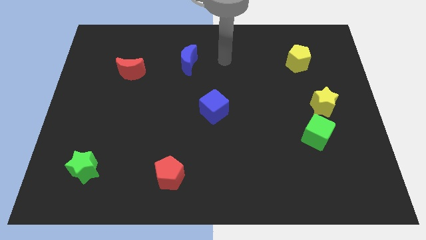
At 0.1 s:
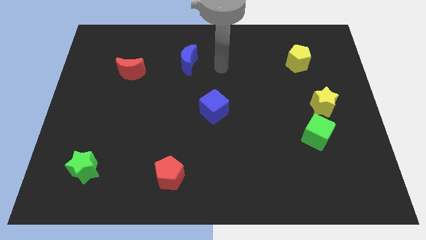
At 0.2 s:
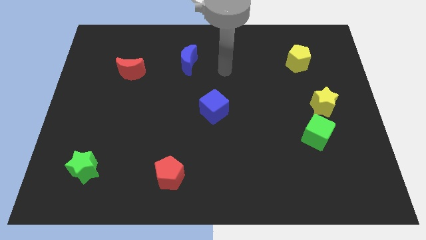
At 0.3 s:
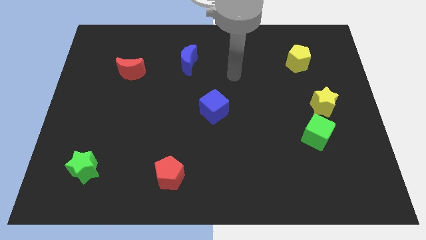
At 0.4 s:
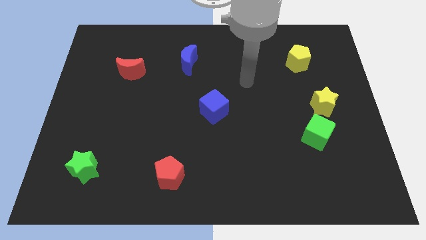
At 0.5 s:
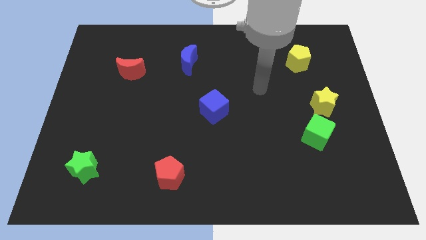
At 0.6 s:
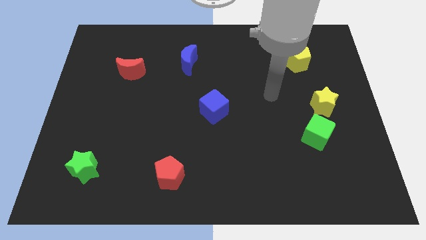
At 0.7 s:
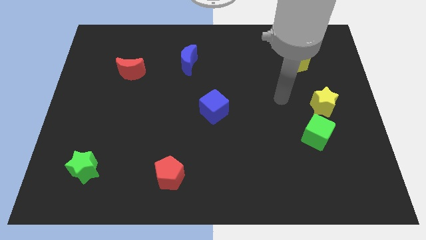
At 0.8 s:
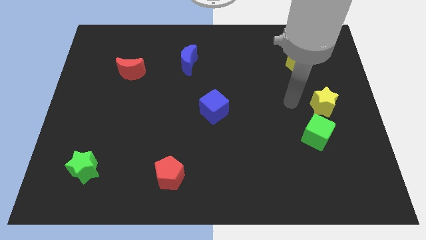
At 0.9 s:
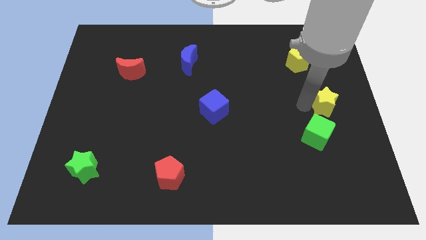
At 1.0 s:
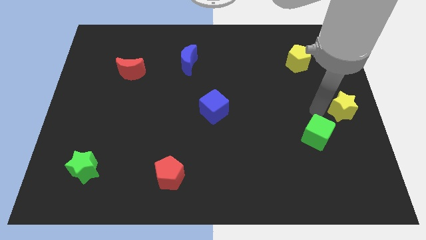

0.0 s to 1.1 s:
move the green cube away from the yellow star

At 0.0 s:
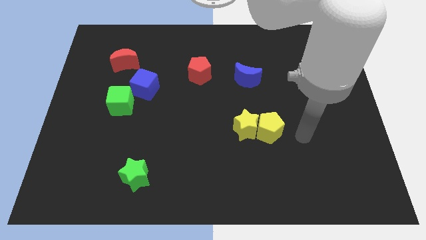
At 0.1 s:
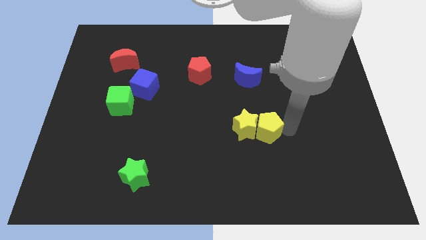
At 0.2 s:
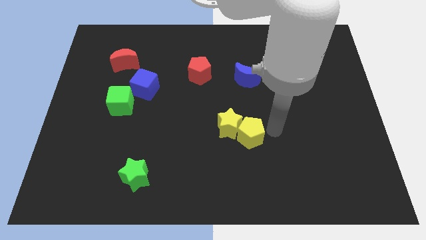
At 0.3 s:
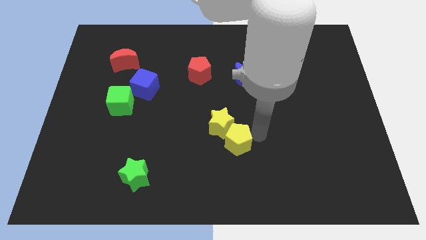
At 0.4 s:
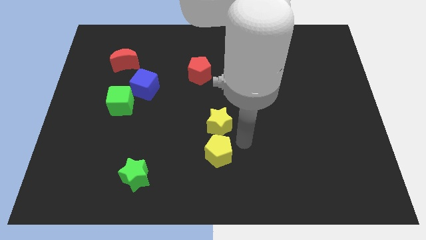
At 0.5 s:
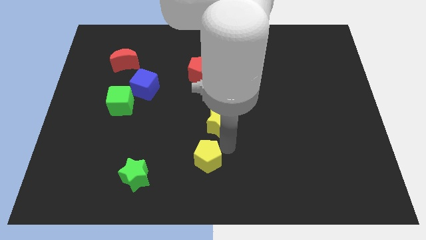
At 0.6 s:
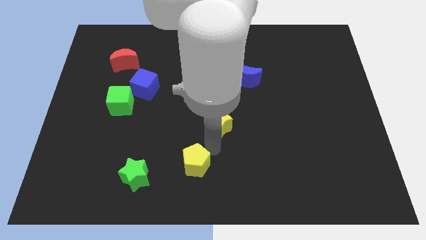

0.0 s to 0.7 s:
move the yellow star away from the yellow pentagon

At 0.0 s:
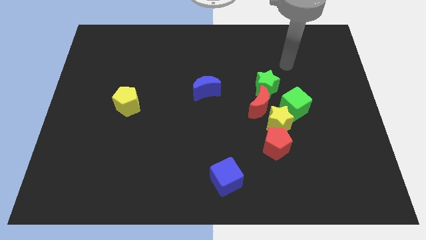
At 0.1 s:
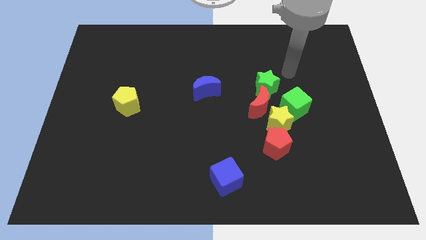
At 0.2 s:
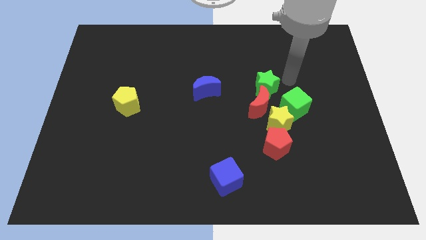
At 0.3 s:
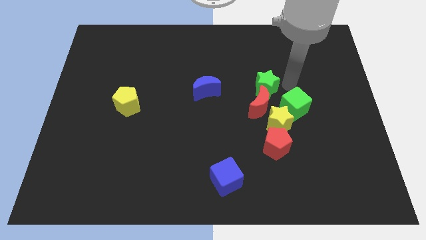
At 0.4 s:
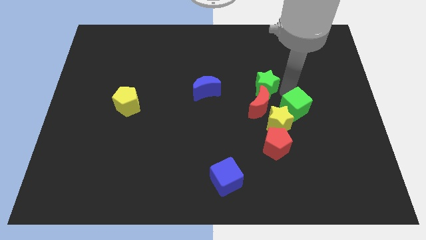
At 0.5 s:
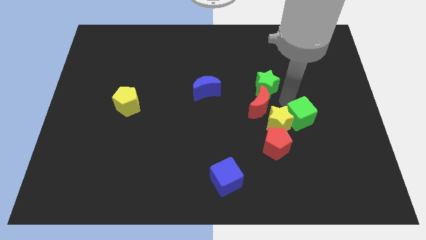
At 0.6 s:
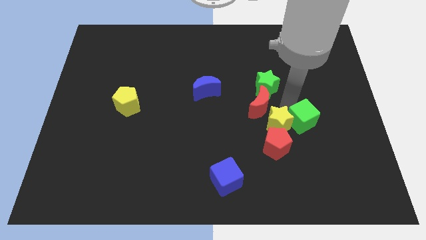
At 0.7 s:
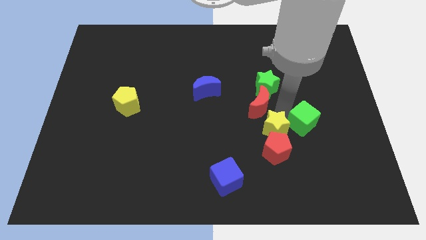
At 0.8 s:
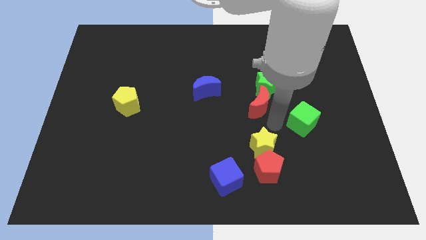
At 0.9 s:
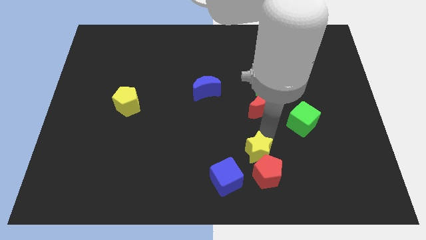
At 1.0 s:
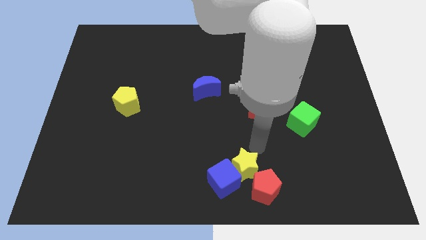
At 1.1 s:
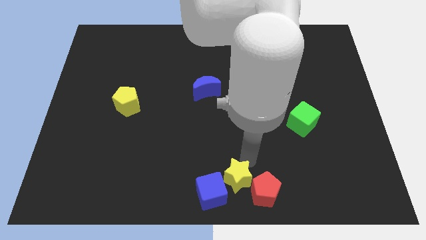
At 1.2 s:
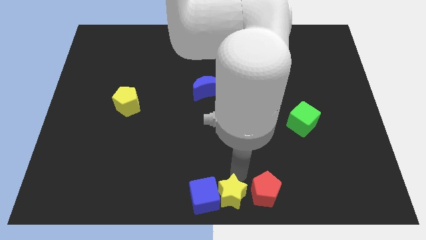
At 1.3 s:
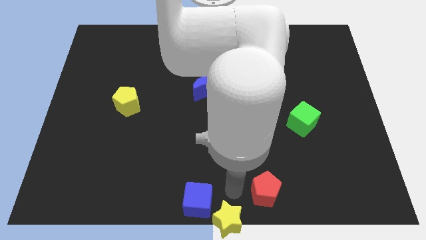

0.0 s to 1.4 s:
separate the red pentagon from the yellow star

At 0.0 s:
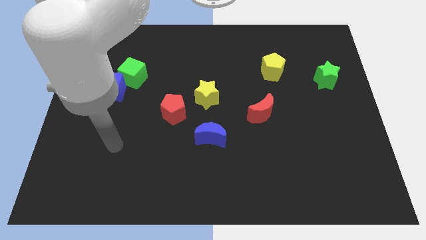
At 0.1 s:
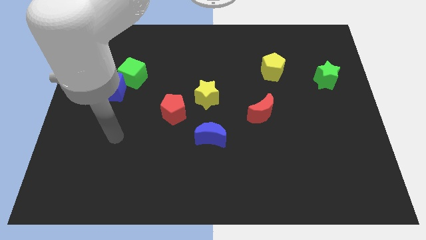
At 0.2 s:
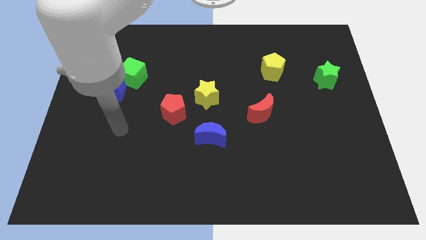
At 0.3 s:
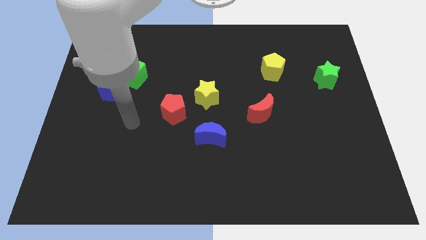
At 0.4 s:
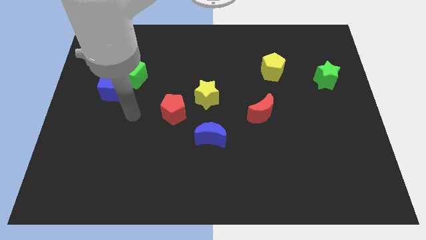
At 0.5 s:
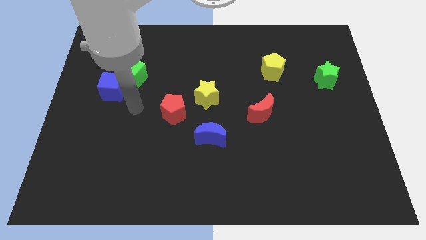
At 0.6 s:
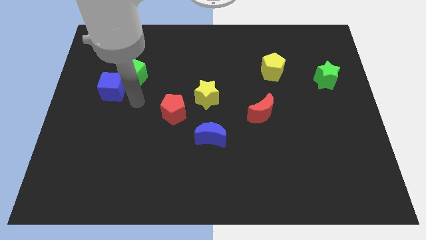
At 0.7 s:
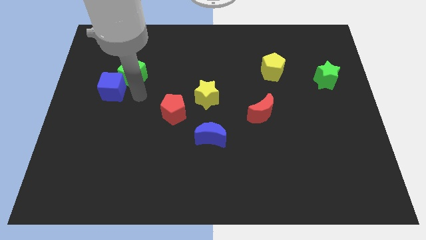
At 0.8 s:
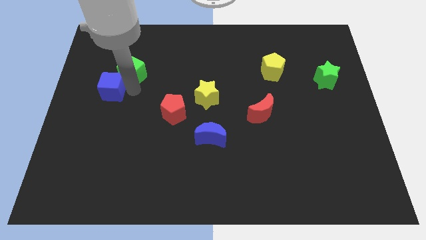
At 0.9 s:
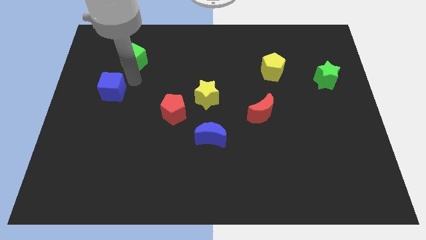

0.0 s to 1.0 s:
move the blue cube away from the green cube

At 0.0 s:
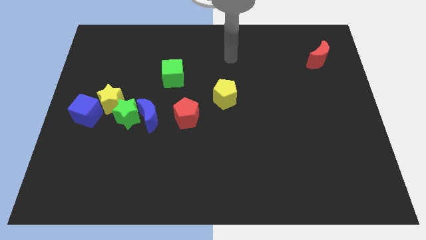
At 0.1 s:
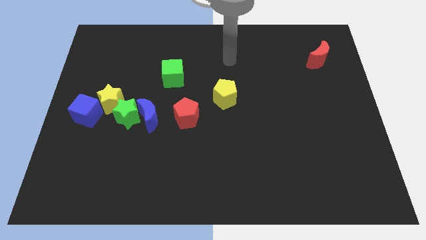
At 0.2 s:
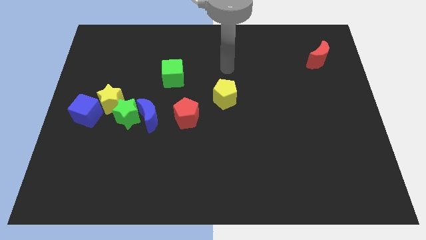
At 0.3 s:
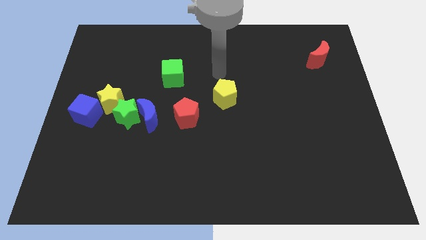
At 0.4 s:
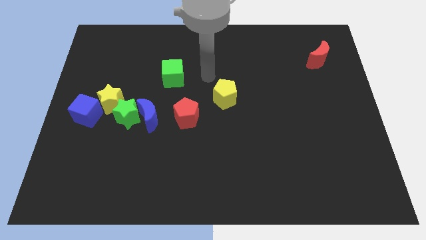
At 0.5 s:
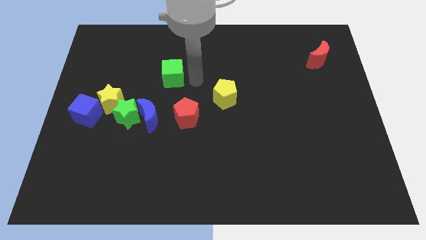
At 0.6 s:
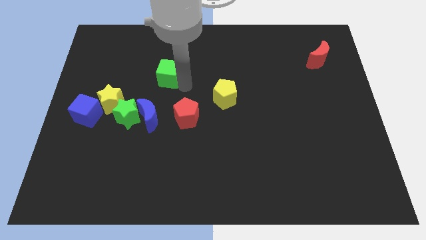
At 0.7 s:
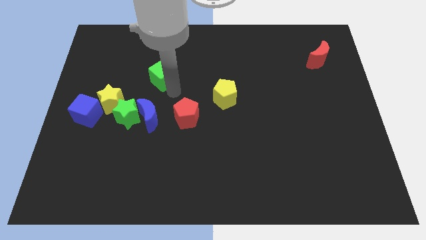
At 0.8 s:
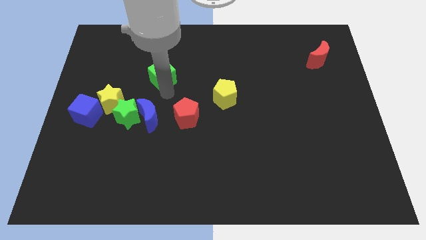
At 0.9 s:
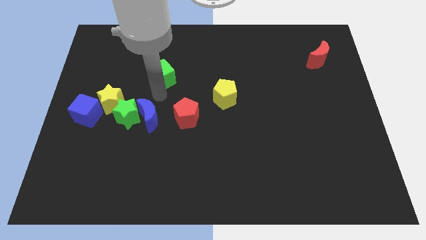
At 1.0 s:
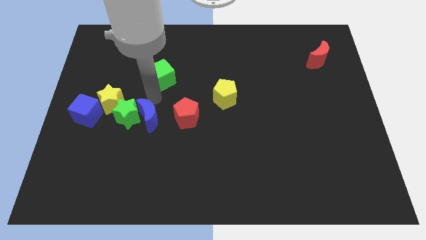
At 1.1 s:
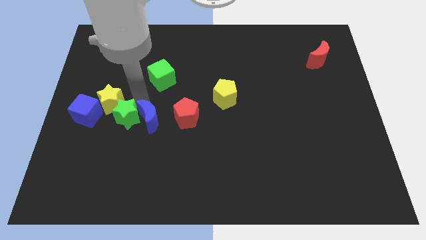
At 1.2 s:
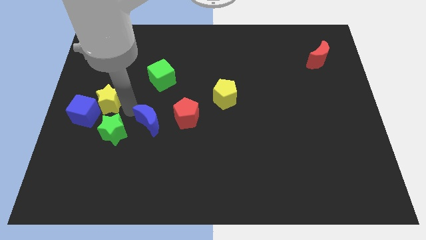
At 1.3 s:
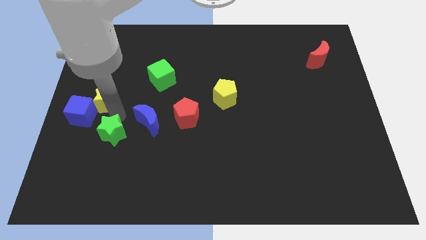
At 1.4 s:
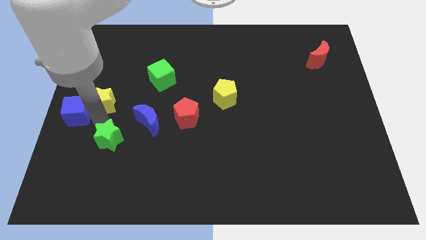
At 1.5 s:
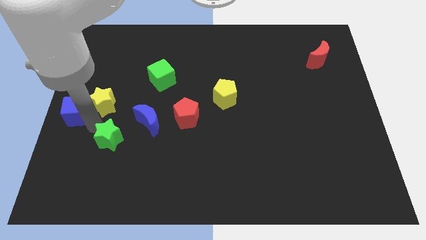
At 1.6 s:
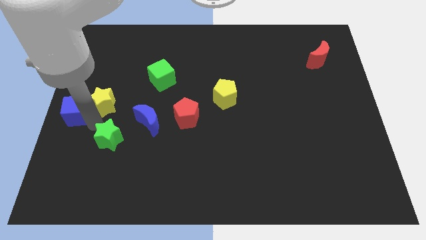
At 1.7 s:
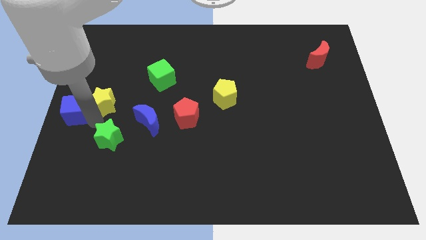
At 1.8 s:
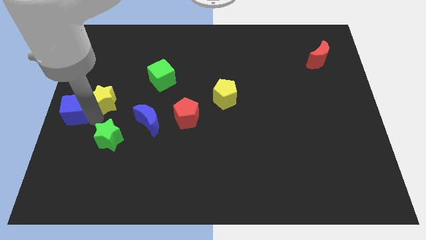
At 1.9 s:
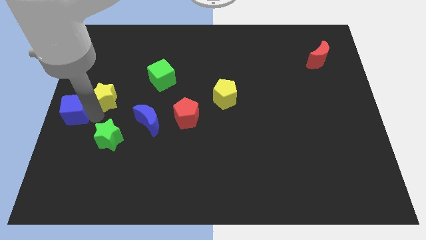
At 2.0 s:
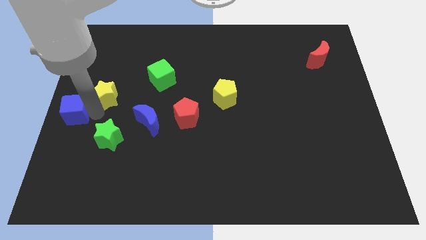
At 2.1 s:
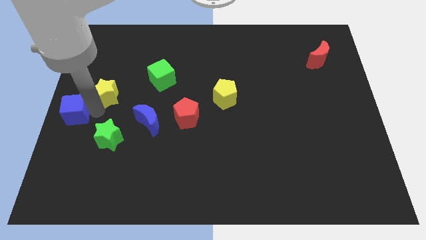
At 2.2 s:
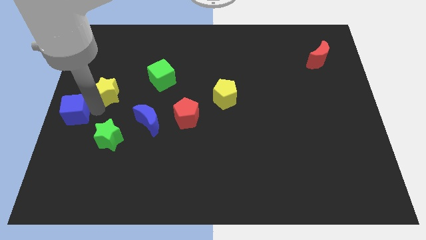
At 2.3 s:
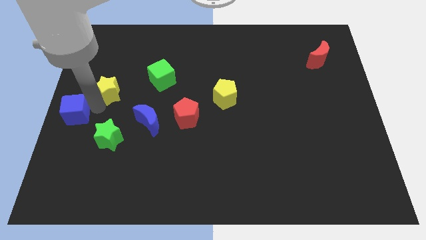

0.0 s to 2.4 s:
separate the yellow star from the blue cube and green star

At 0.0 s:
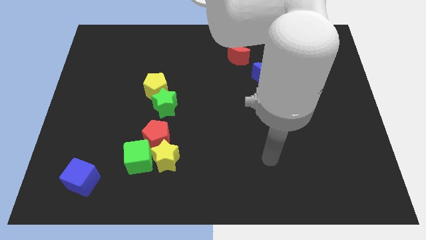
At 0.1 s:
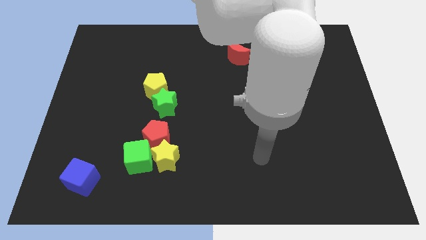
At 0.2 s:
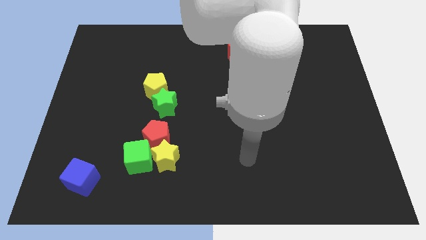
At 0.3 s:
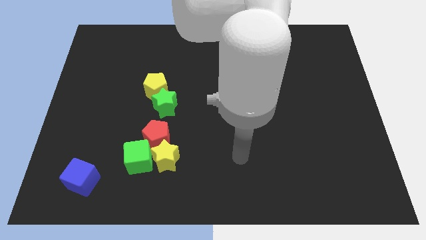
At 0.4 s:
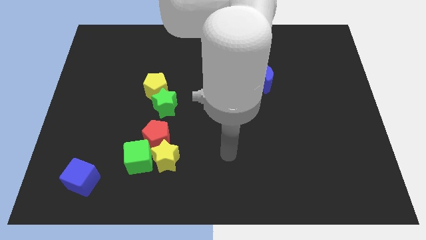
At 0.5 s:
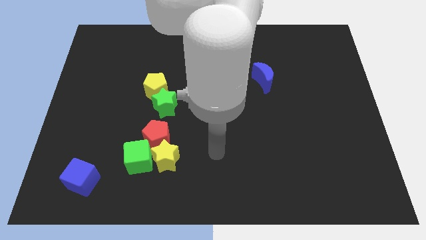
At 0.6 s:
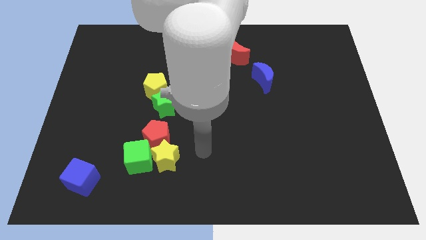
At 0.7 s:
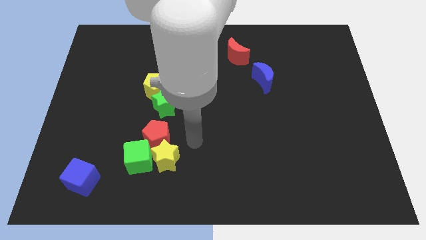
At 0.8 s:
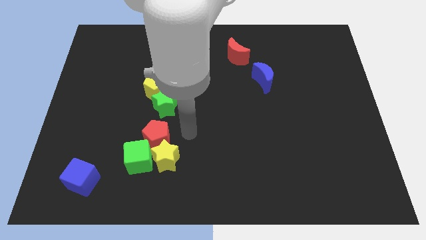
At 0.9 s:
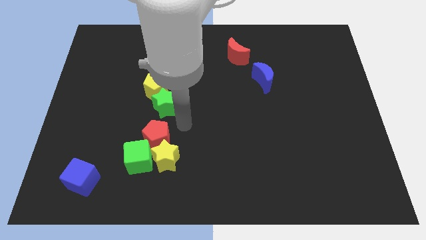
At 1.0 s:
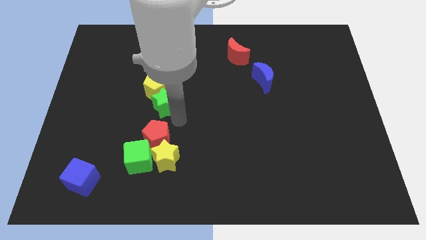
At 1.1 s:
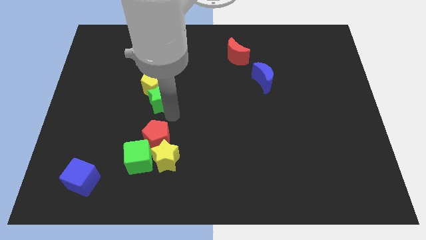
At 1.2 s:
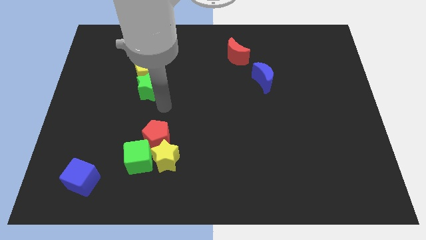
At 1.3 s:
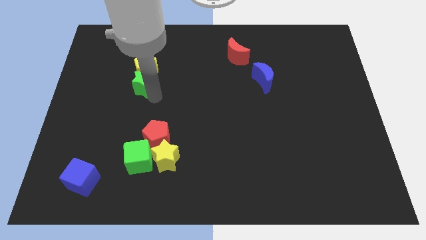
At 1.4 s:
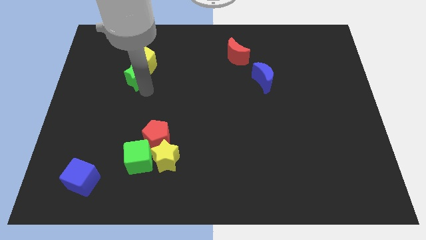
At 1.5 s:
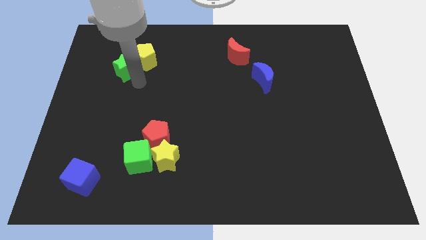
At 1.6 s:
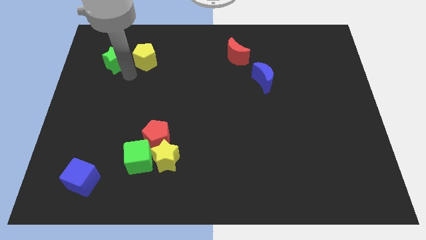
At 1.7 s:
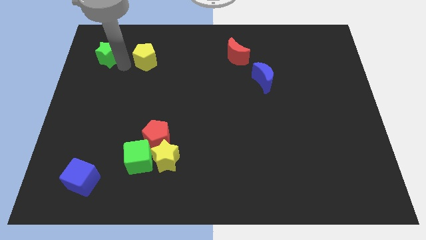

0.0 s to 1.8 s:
pull the yellow pentagon apart from the green star

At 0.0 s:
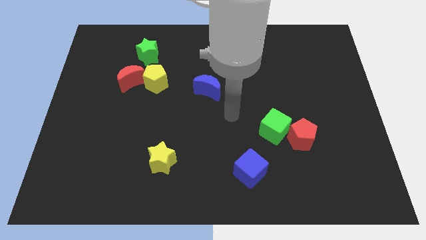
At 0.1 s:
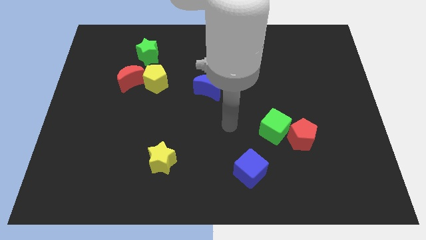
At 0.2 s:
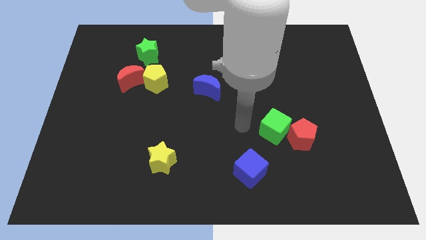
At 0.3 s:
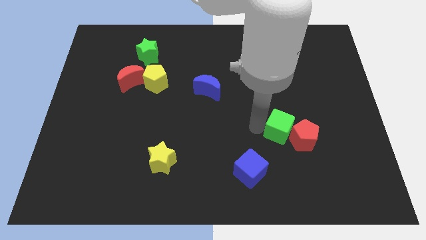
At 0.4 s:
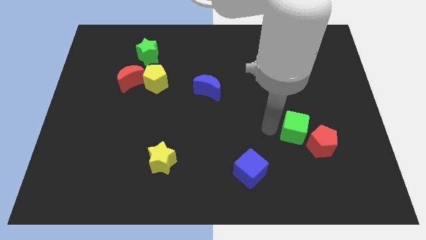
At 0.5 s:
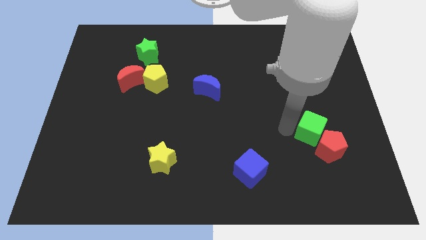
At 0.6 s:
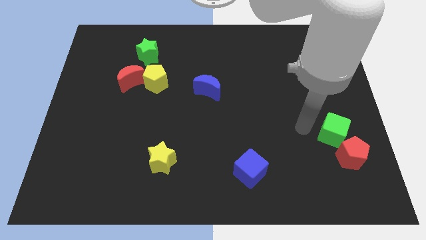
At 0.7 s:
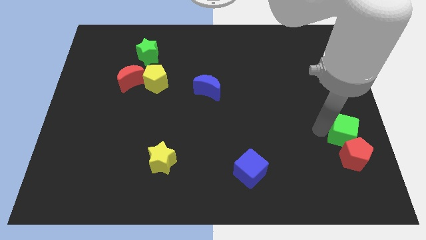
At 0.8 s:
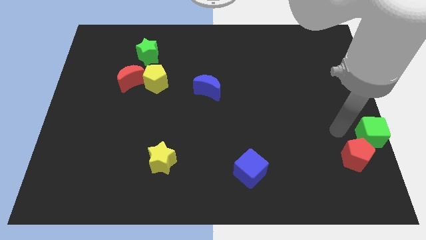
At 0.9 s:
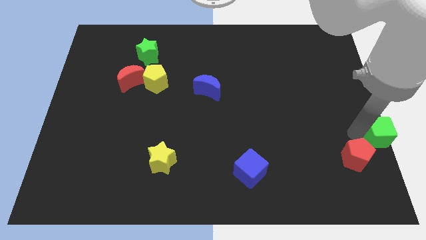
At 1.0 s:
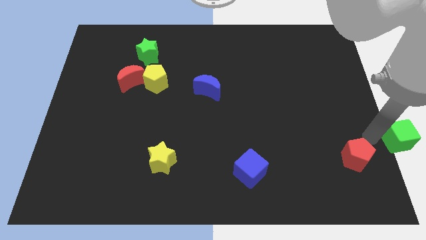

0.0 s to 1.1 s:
move the red pentagon away from the green cube
